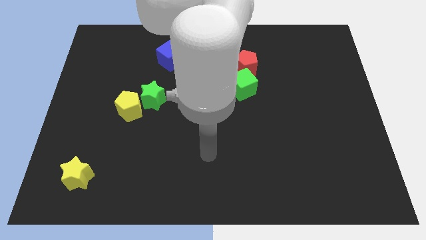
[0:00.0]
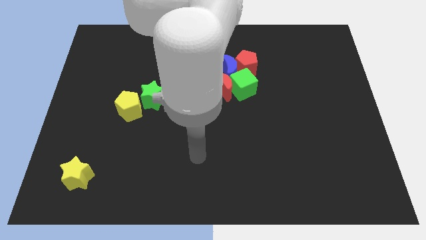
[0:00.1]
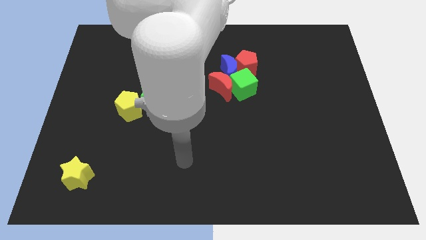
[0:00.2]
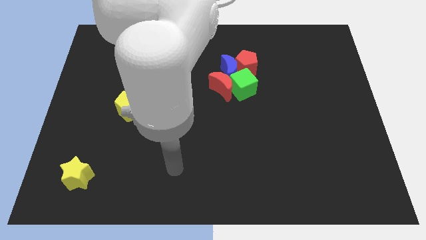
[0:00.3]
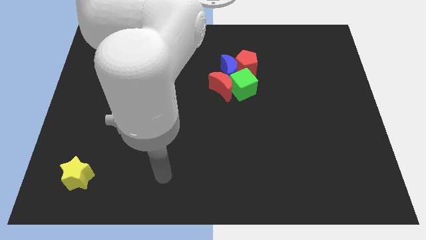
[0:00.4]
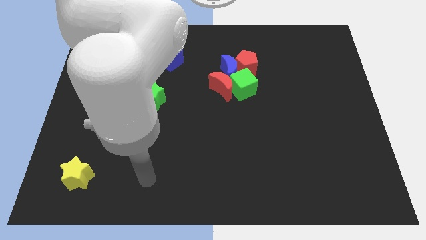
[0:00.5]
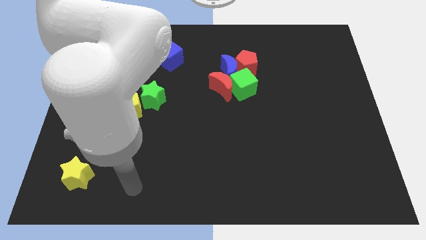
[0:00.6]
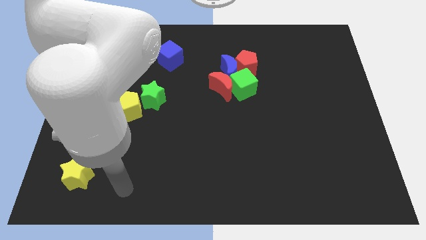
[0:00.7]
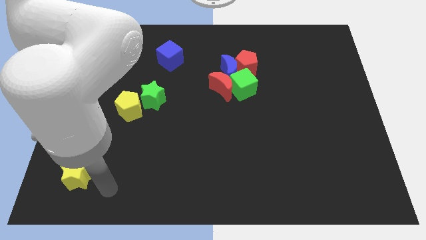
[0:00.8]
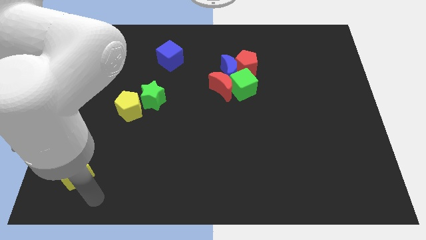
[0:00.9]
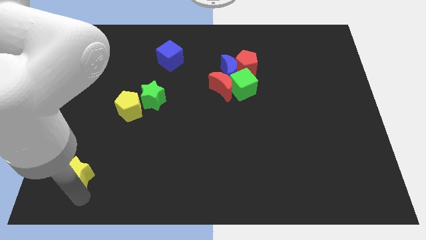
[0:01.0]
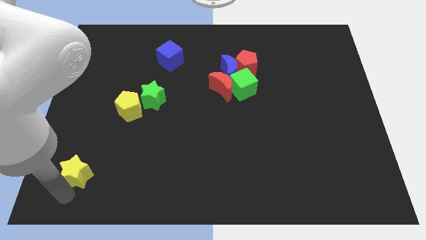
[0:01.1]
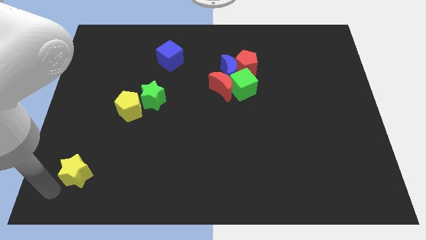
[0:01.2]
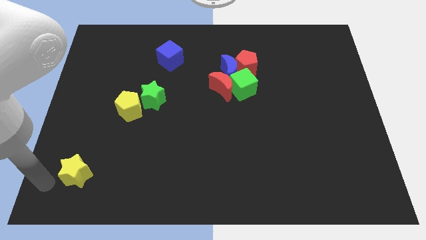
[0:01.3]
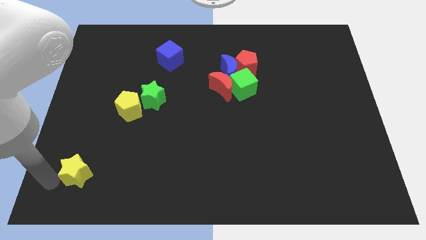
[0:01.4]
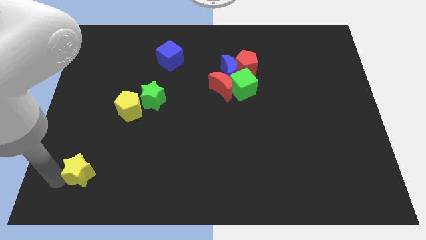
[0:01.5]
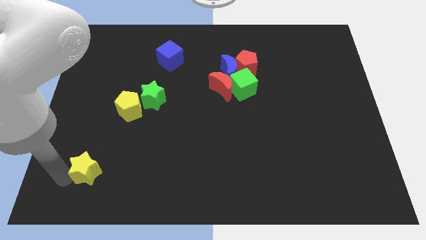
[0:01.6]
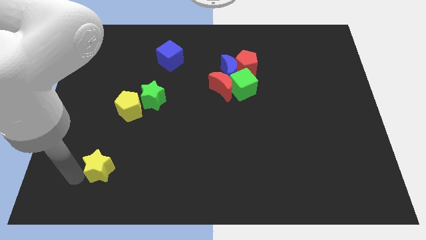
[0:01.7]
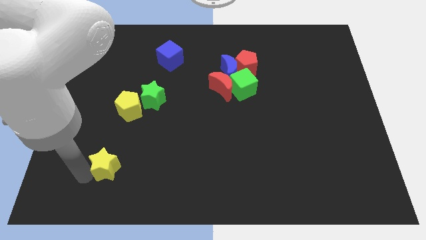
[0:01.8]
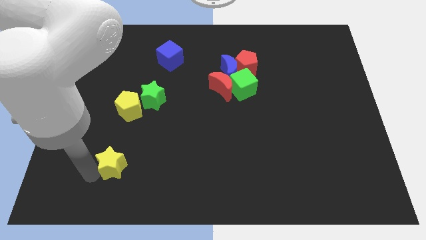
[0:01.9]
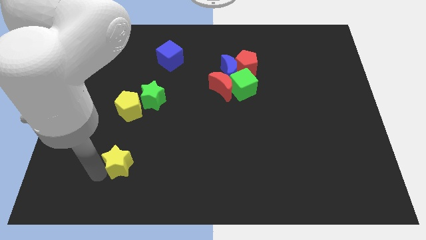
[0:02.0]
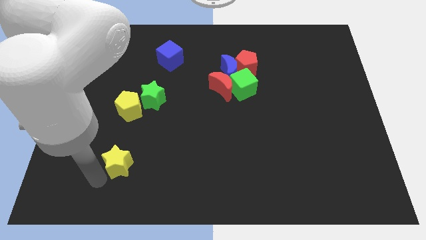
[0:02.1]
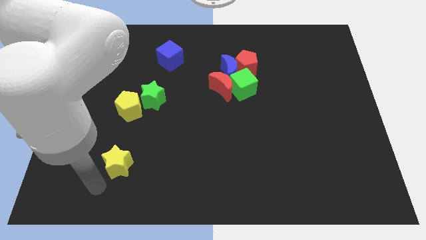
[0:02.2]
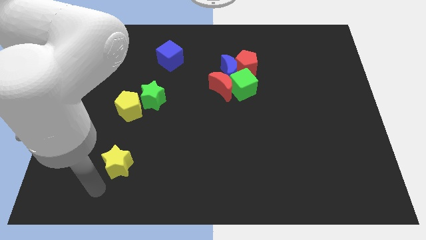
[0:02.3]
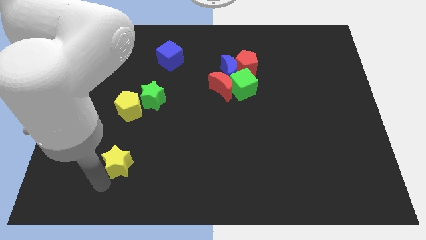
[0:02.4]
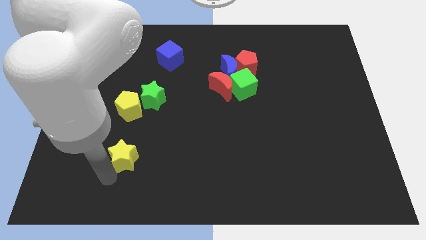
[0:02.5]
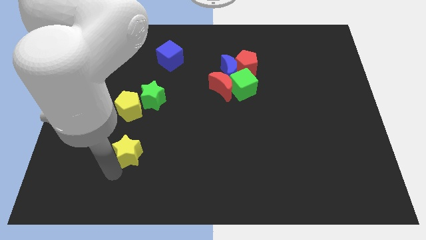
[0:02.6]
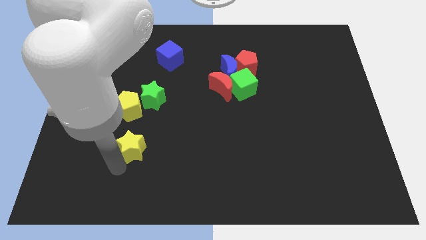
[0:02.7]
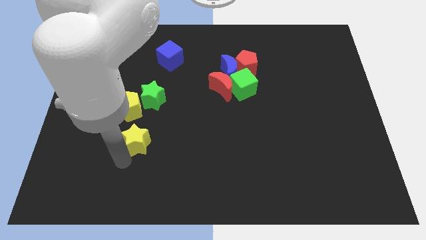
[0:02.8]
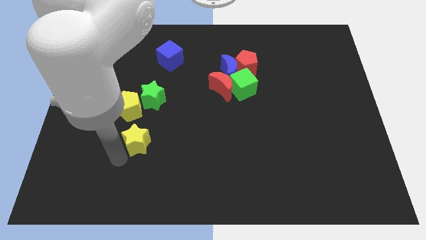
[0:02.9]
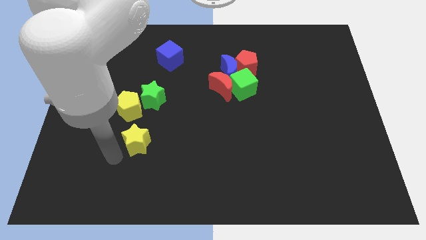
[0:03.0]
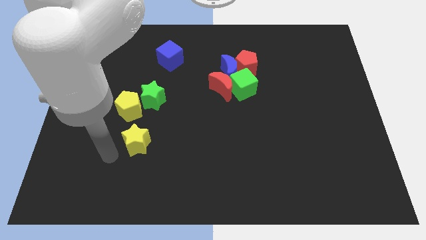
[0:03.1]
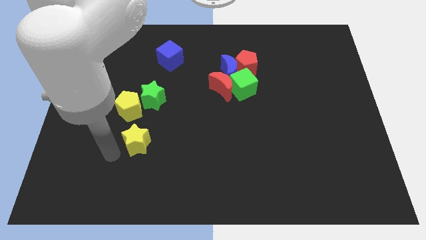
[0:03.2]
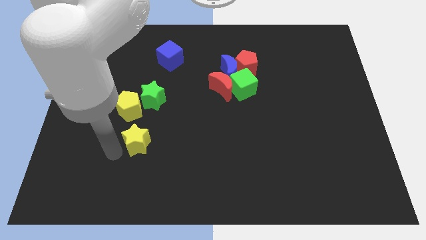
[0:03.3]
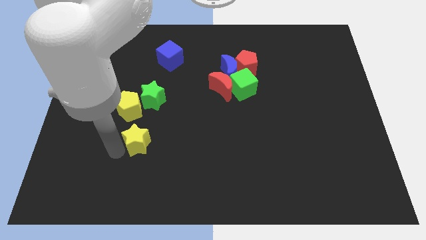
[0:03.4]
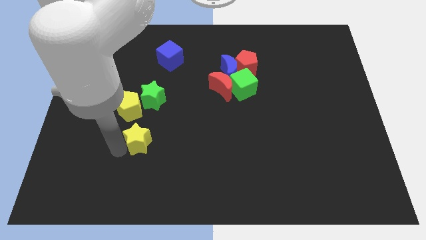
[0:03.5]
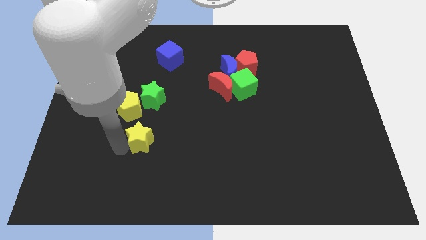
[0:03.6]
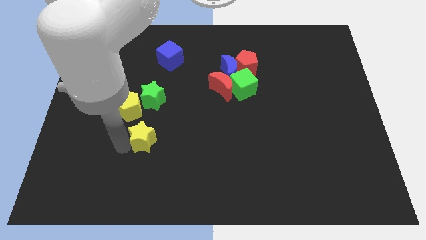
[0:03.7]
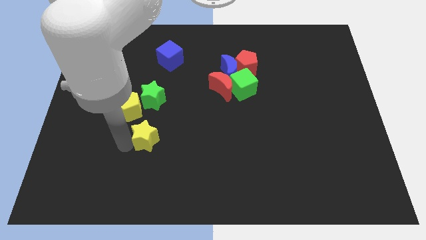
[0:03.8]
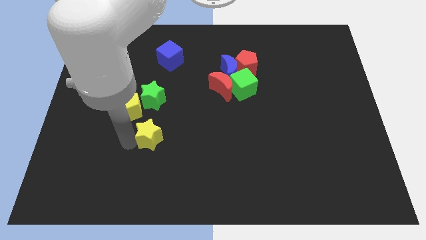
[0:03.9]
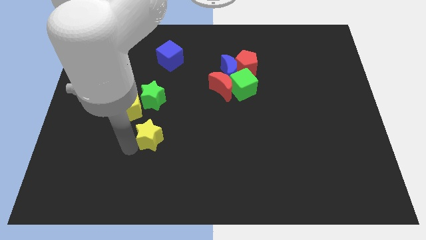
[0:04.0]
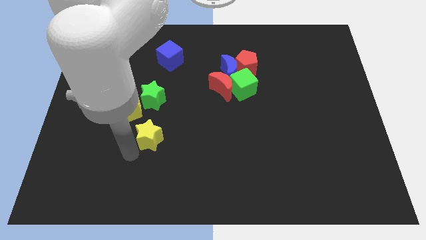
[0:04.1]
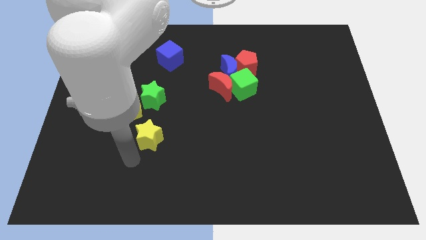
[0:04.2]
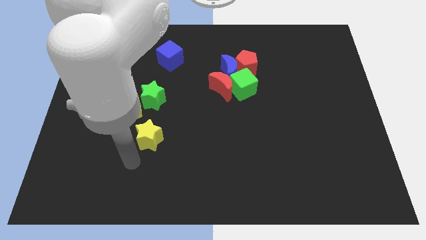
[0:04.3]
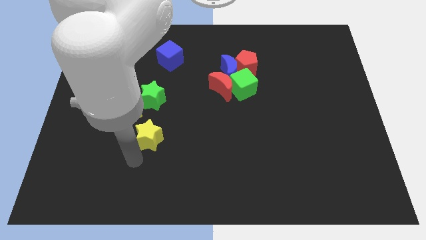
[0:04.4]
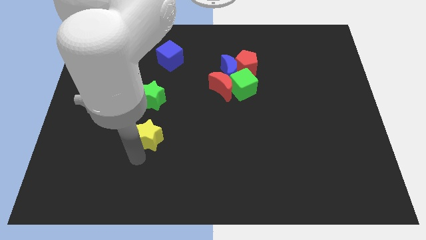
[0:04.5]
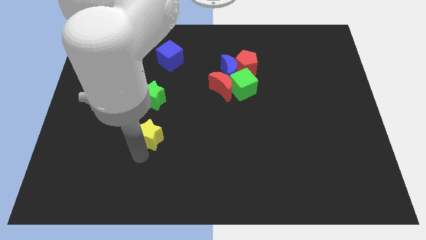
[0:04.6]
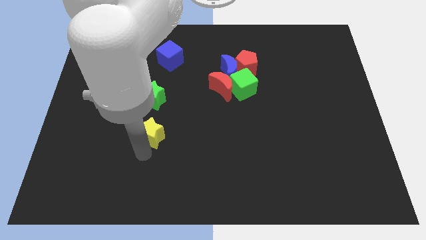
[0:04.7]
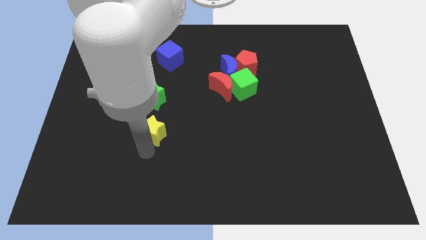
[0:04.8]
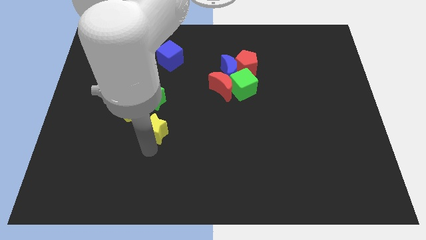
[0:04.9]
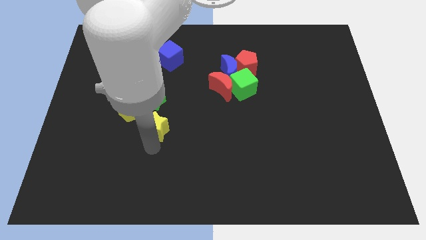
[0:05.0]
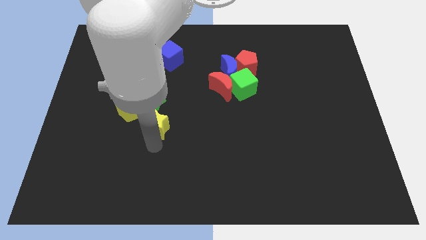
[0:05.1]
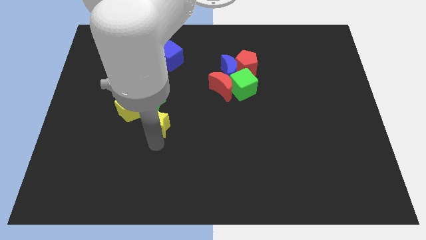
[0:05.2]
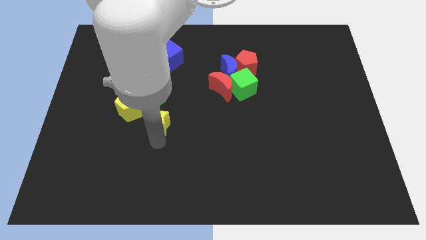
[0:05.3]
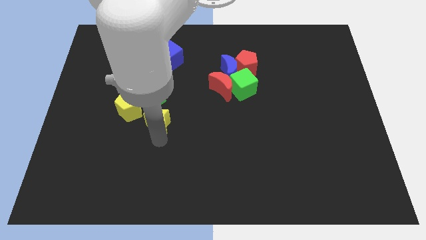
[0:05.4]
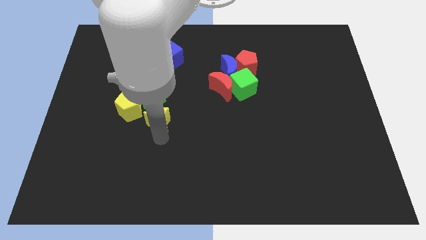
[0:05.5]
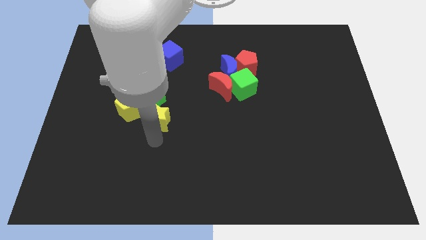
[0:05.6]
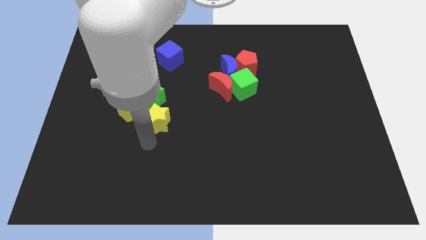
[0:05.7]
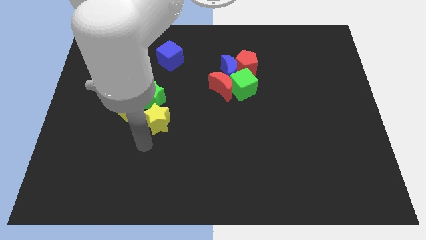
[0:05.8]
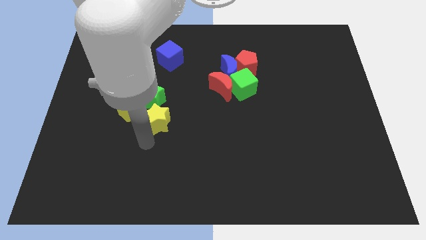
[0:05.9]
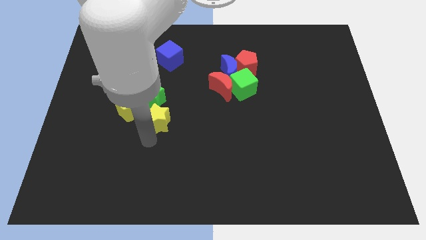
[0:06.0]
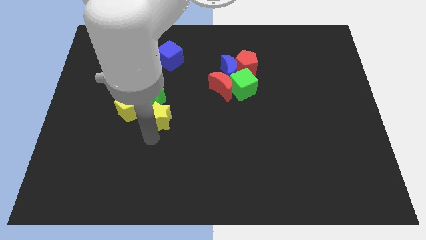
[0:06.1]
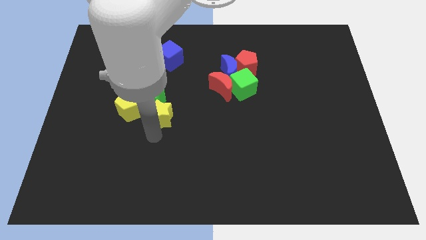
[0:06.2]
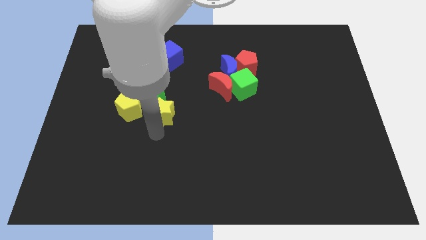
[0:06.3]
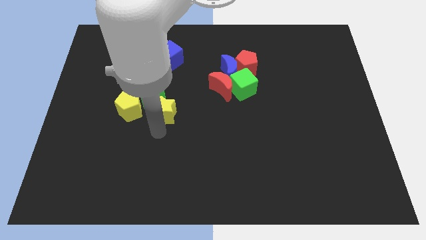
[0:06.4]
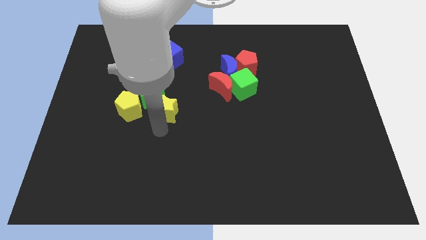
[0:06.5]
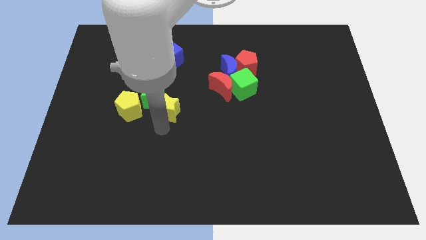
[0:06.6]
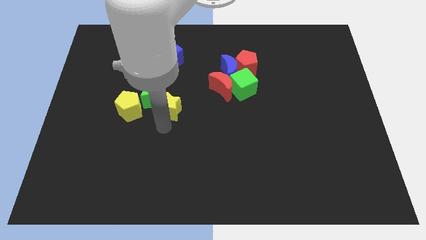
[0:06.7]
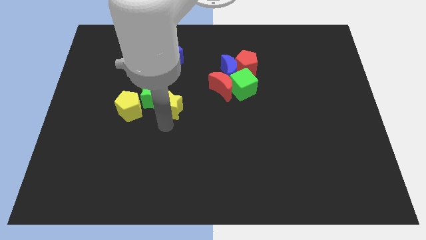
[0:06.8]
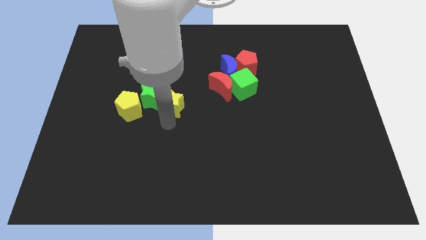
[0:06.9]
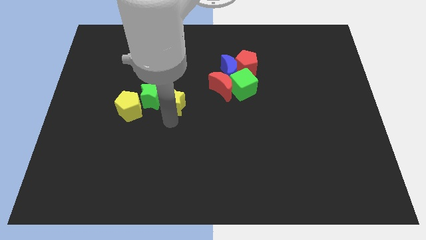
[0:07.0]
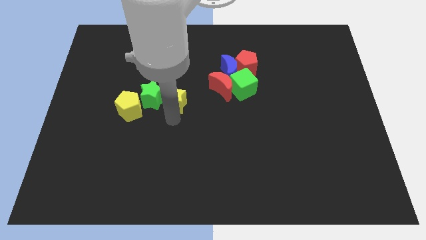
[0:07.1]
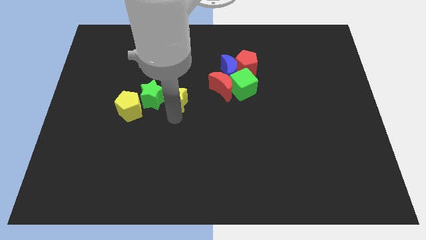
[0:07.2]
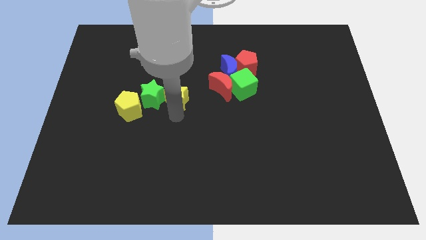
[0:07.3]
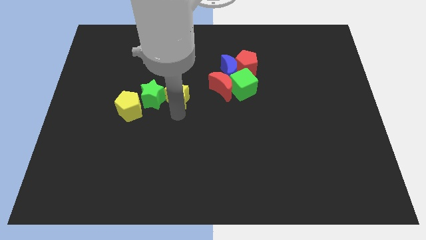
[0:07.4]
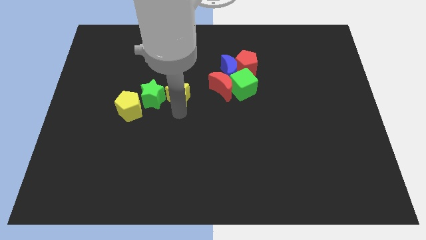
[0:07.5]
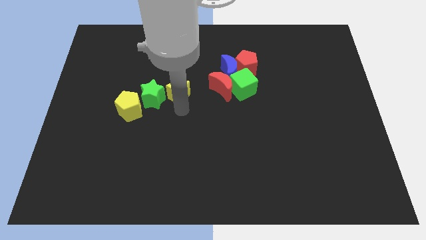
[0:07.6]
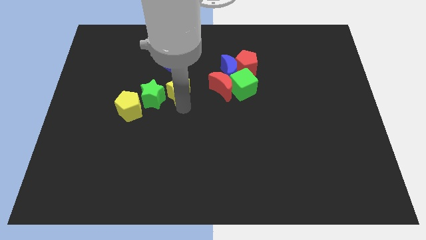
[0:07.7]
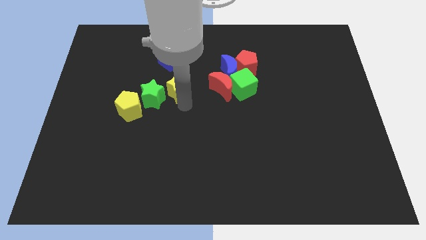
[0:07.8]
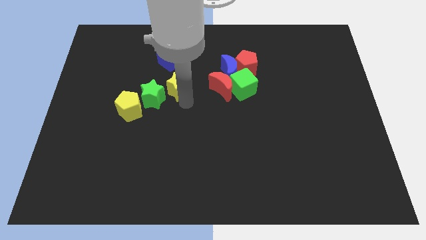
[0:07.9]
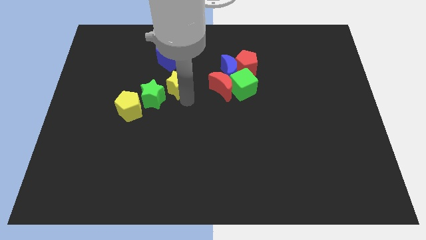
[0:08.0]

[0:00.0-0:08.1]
put the yellow star to the bottom right side of the blue cube
